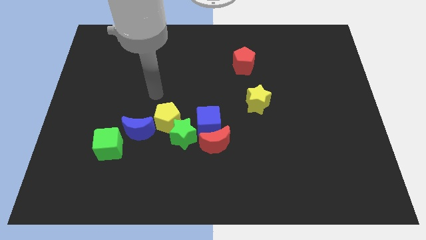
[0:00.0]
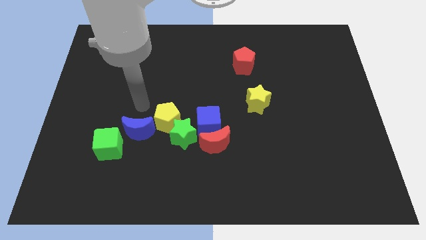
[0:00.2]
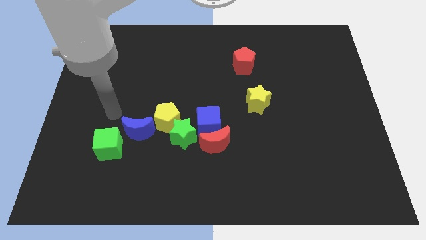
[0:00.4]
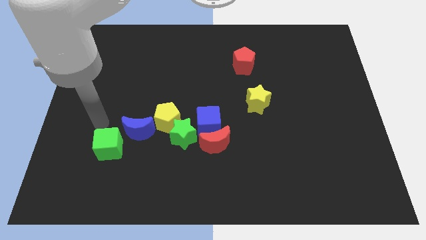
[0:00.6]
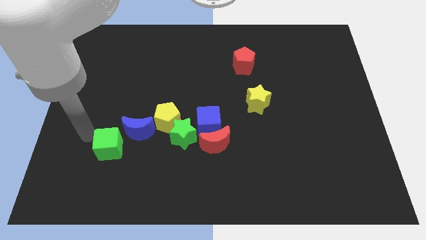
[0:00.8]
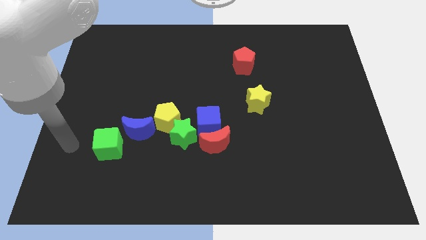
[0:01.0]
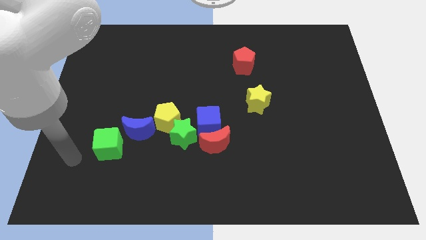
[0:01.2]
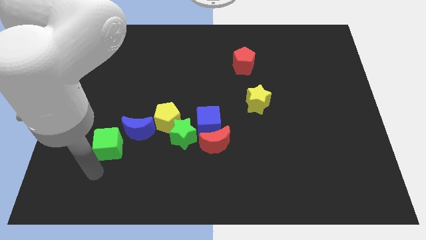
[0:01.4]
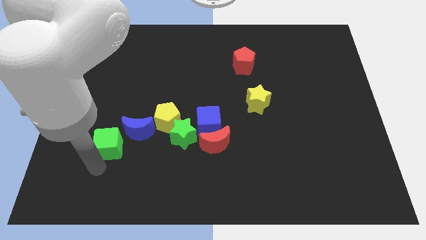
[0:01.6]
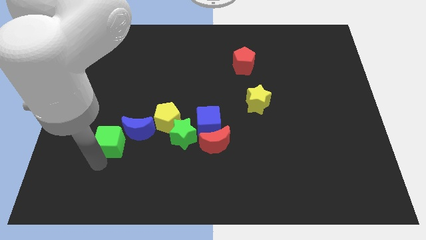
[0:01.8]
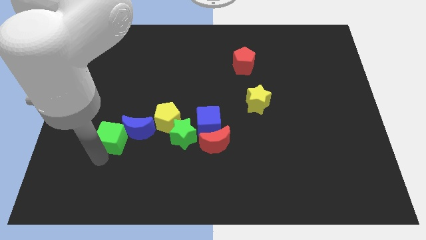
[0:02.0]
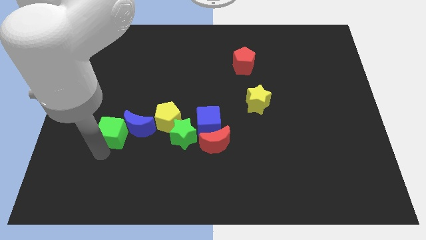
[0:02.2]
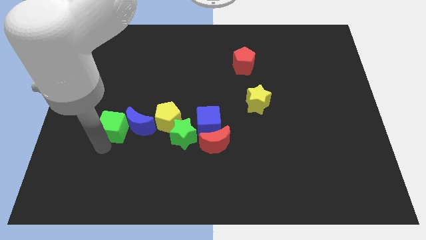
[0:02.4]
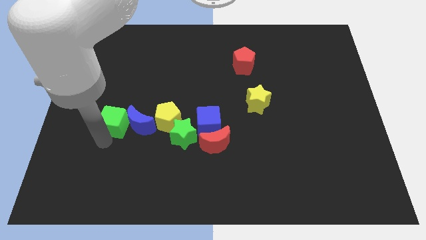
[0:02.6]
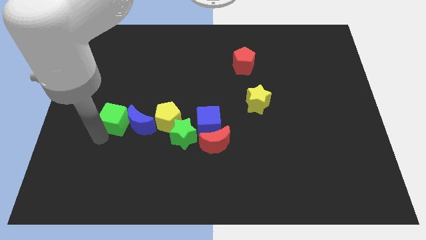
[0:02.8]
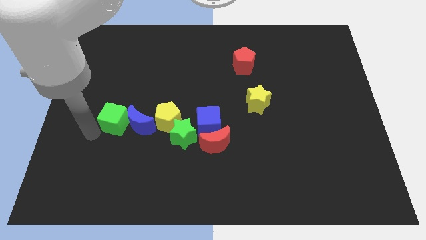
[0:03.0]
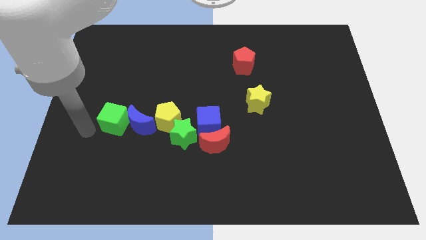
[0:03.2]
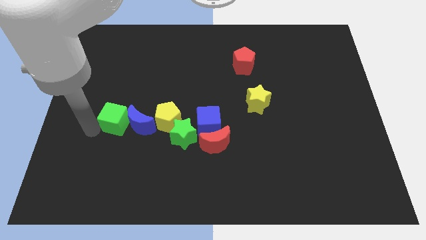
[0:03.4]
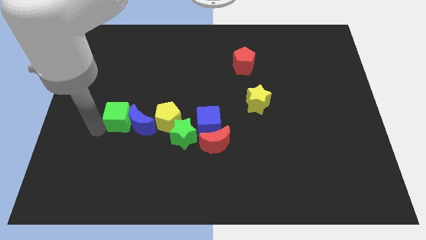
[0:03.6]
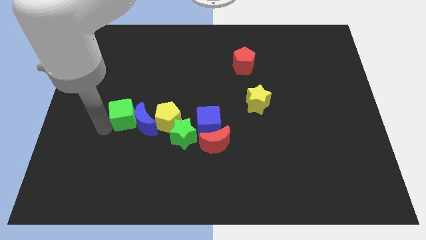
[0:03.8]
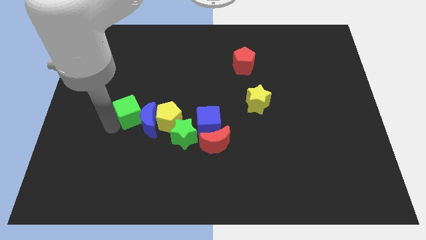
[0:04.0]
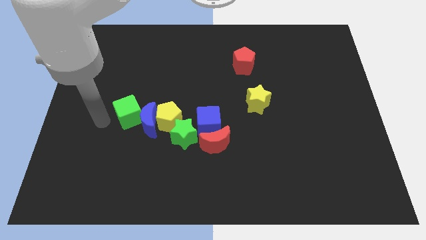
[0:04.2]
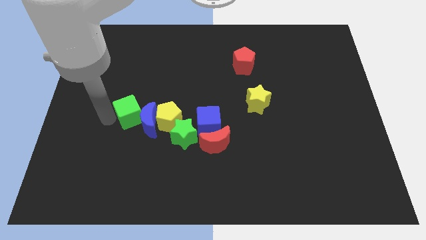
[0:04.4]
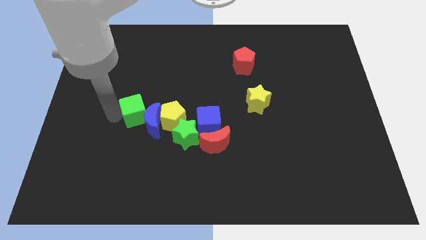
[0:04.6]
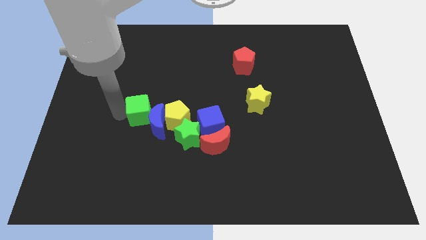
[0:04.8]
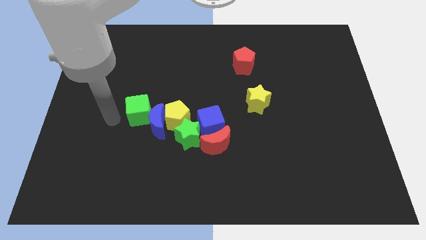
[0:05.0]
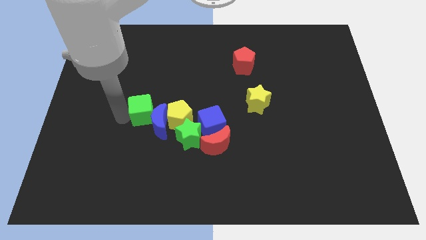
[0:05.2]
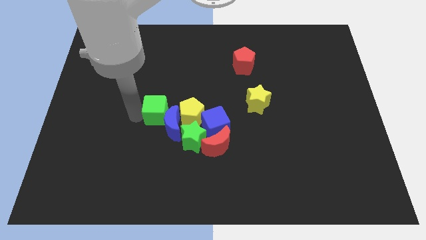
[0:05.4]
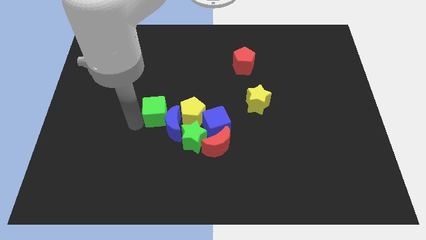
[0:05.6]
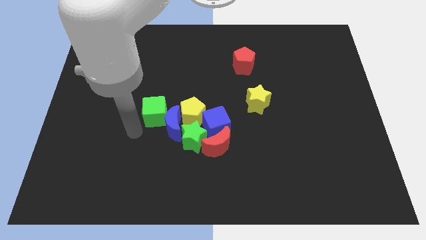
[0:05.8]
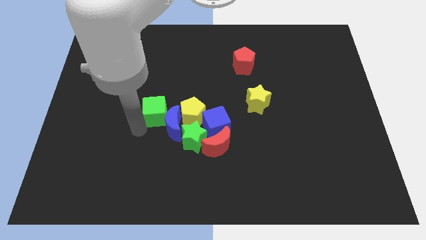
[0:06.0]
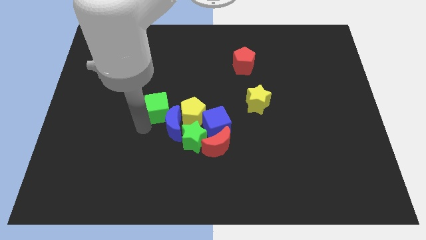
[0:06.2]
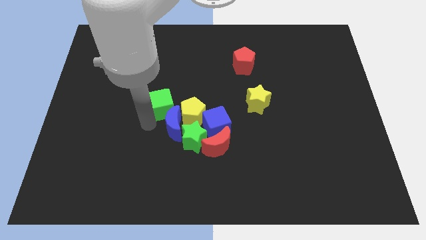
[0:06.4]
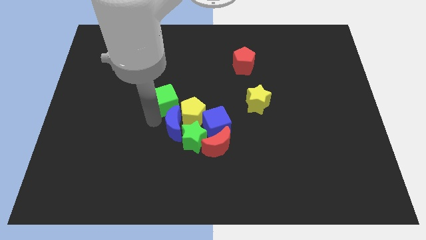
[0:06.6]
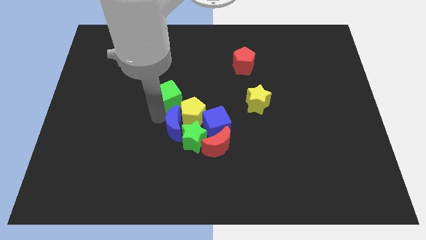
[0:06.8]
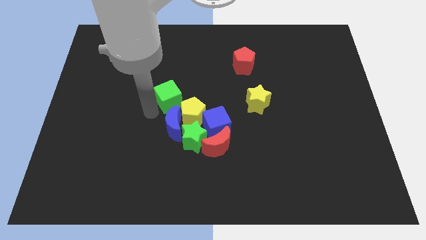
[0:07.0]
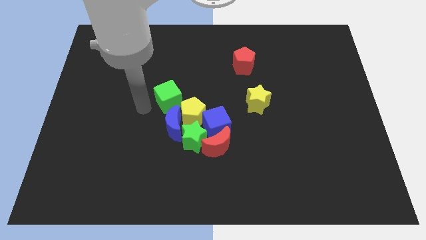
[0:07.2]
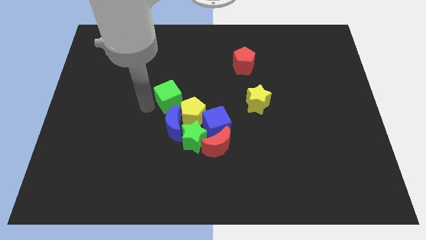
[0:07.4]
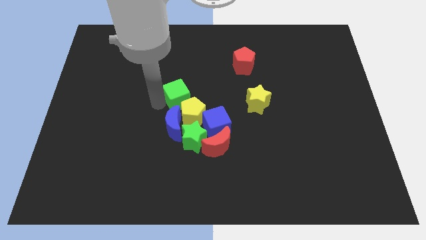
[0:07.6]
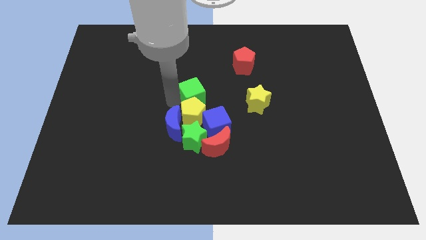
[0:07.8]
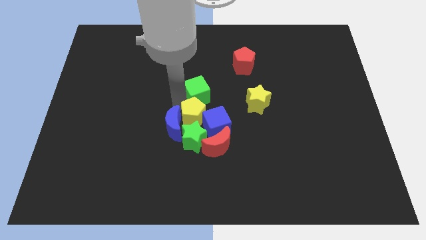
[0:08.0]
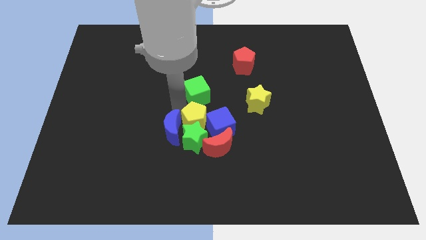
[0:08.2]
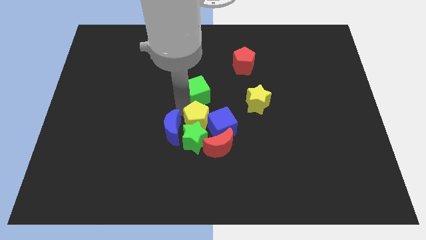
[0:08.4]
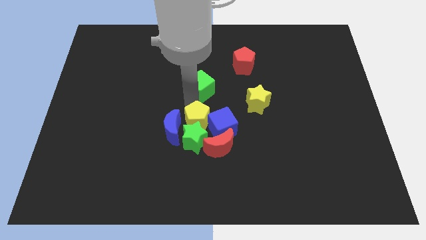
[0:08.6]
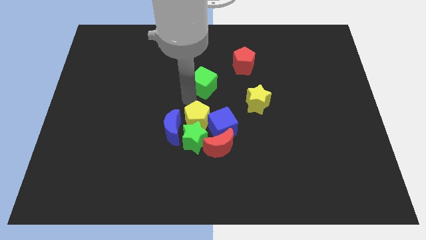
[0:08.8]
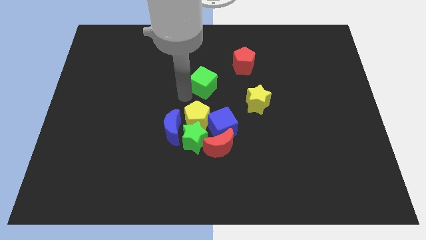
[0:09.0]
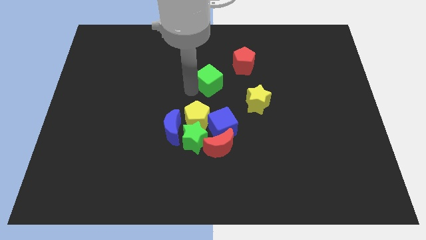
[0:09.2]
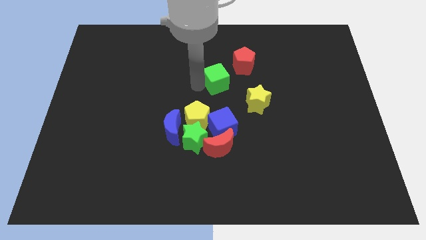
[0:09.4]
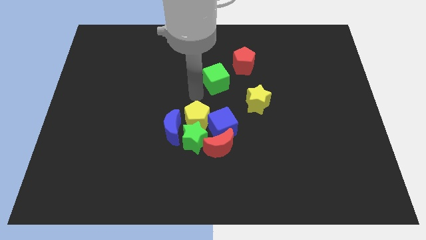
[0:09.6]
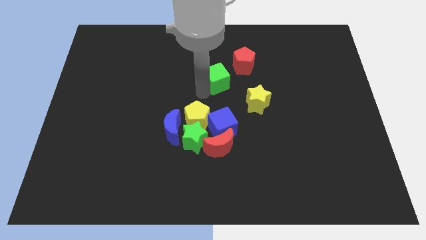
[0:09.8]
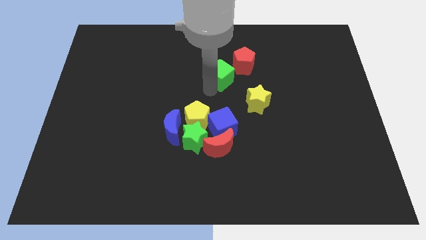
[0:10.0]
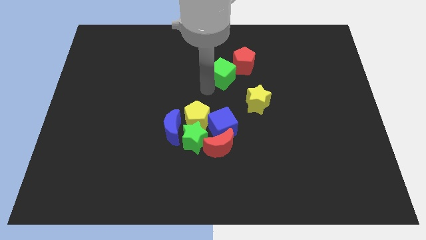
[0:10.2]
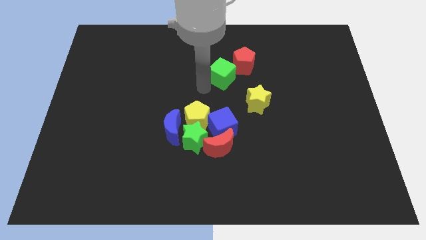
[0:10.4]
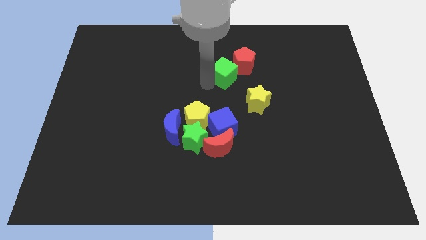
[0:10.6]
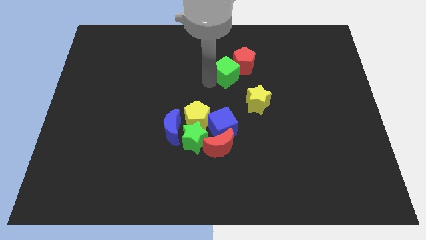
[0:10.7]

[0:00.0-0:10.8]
move the green cube towards the red pentagon

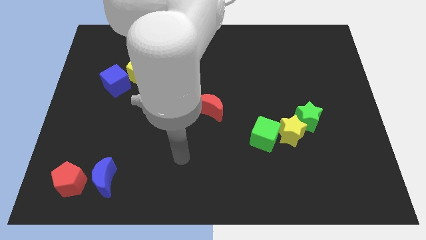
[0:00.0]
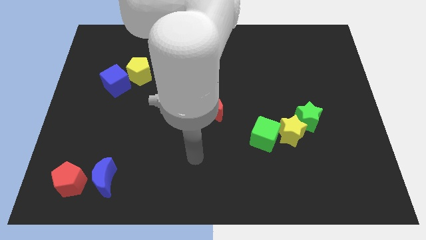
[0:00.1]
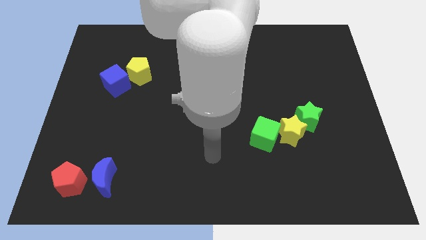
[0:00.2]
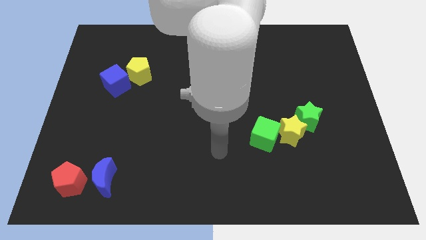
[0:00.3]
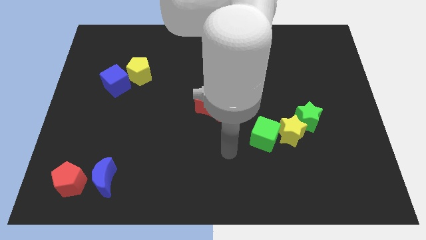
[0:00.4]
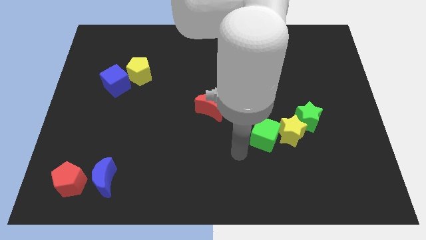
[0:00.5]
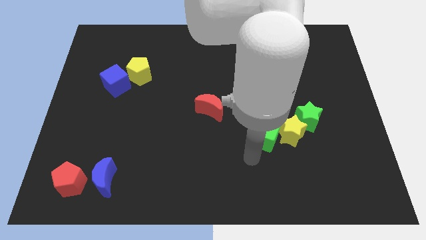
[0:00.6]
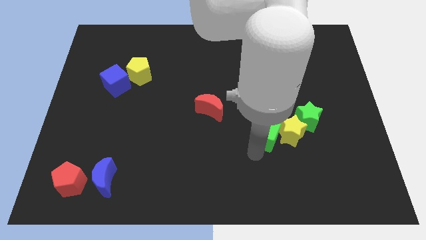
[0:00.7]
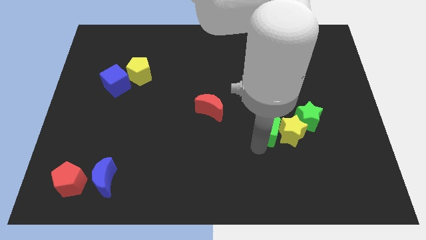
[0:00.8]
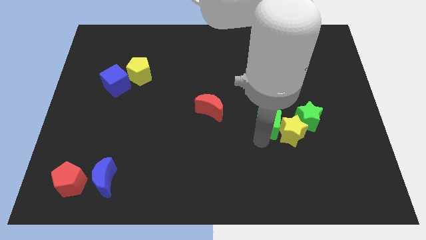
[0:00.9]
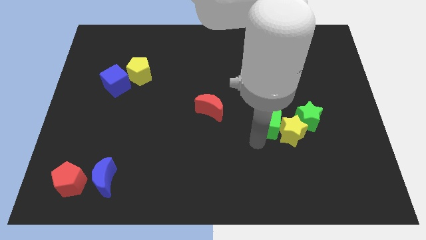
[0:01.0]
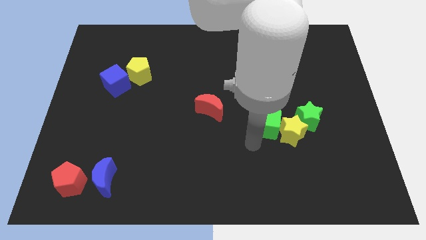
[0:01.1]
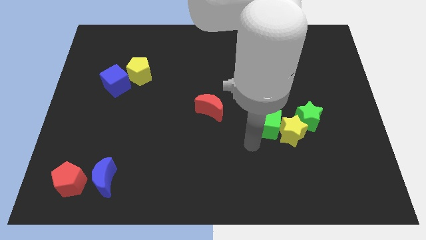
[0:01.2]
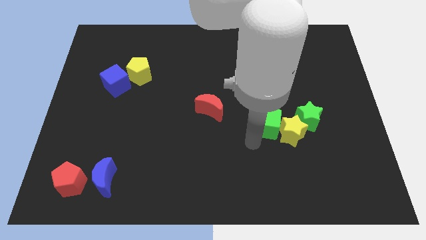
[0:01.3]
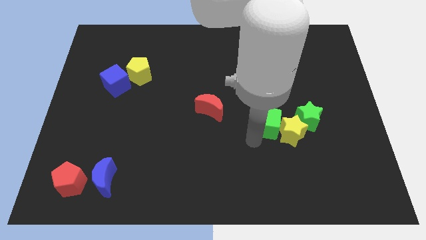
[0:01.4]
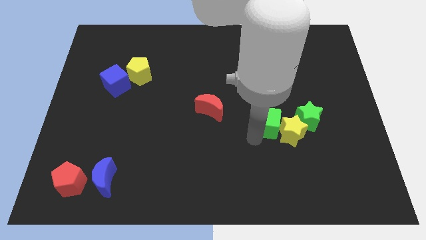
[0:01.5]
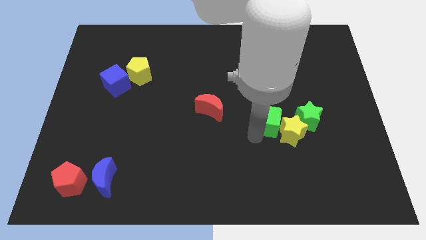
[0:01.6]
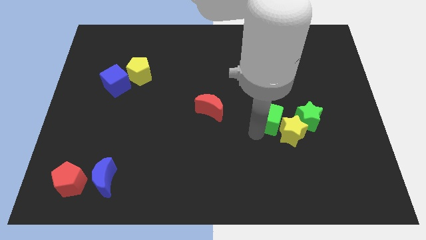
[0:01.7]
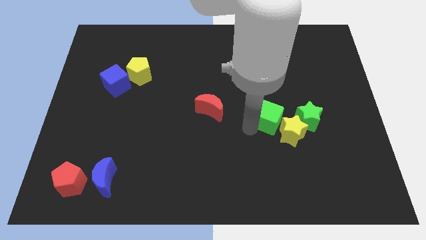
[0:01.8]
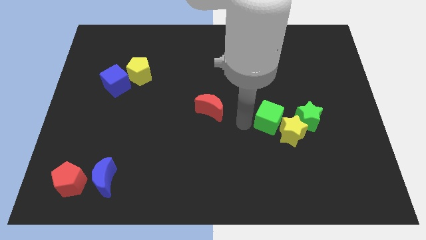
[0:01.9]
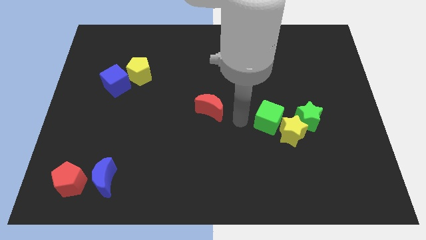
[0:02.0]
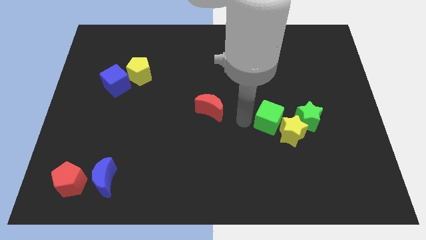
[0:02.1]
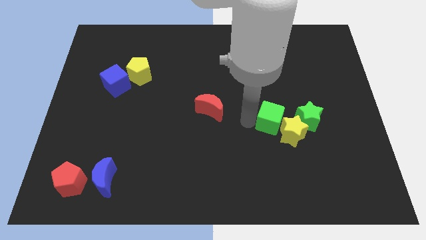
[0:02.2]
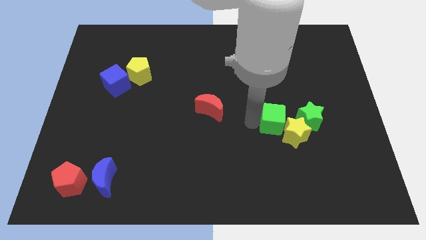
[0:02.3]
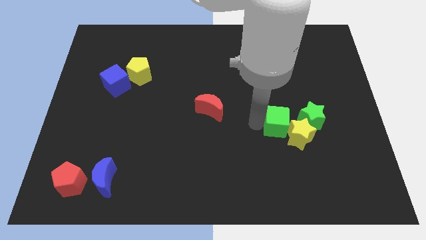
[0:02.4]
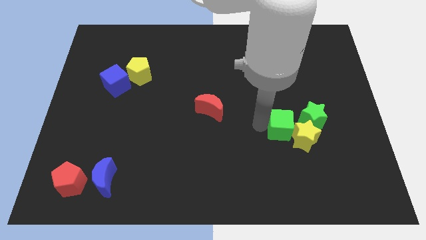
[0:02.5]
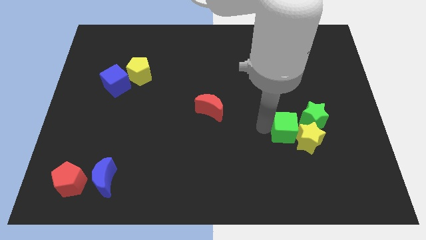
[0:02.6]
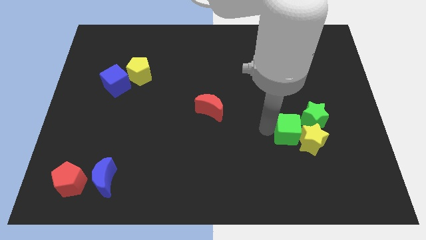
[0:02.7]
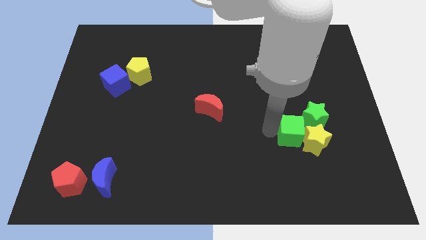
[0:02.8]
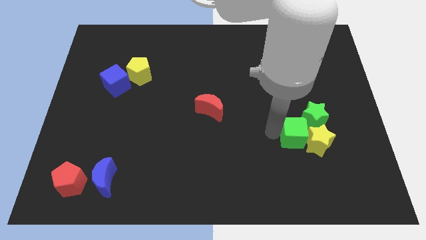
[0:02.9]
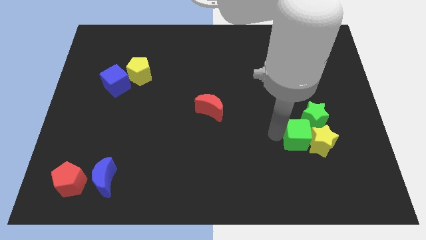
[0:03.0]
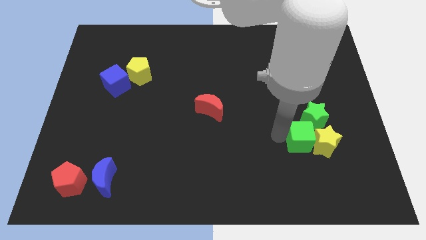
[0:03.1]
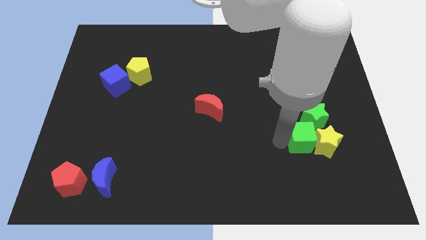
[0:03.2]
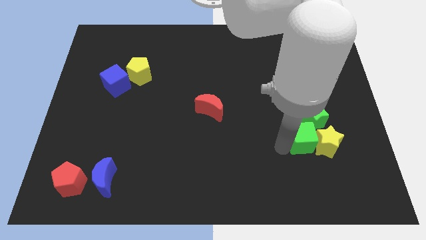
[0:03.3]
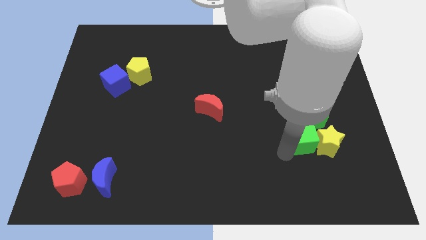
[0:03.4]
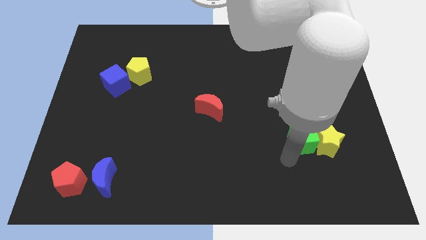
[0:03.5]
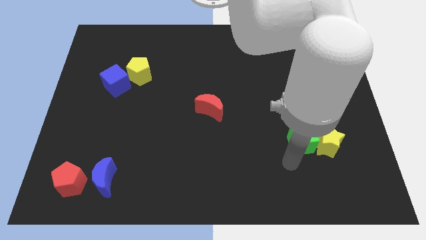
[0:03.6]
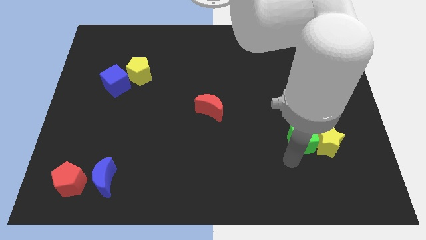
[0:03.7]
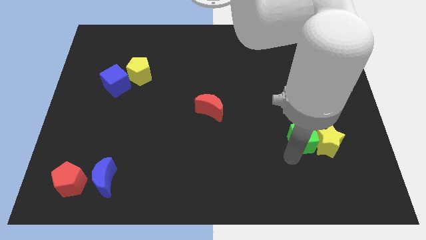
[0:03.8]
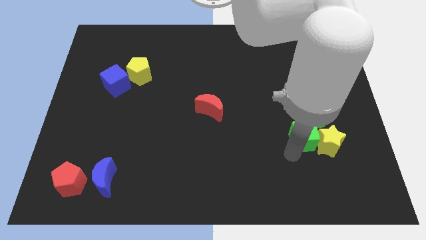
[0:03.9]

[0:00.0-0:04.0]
put the green cube next to the green star
